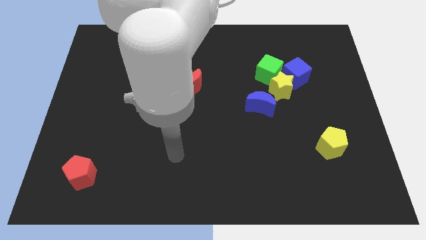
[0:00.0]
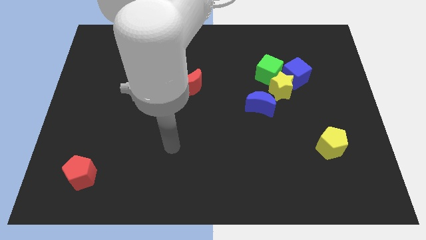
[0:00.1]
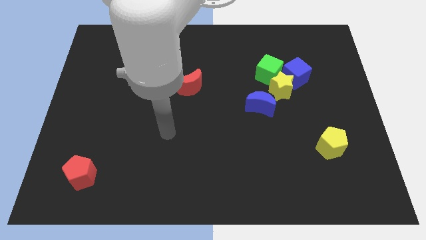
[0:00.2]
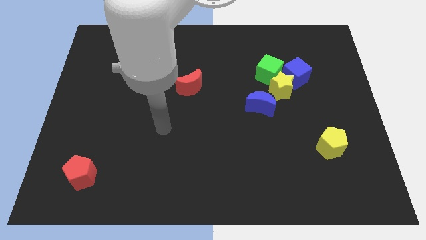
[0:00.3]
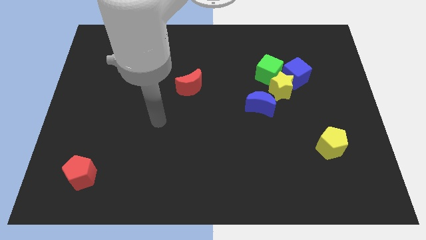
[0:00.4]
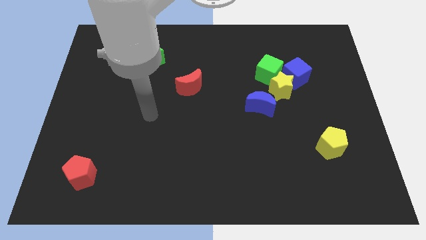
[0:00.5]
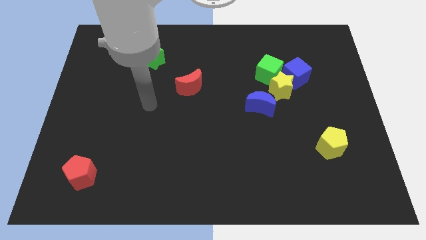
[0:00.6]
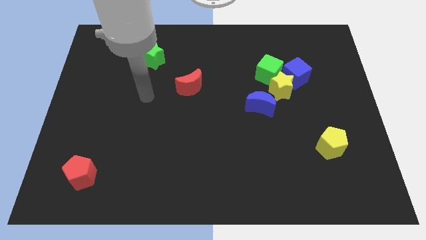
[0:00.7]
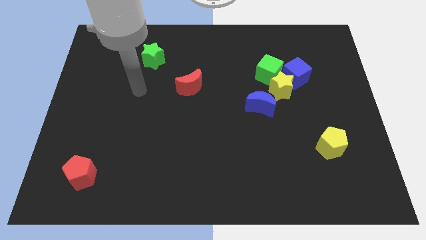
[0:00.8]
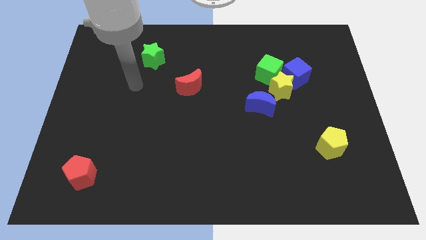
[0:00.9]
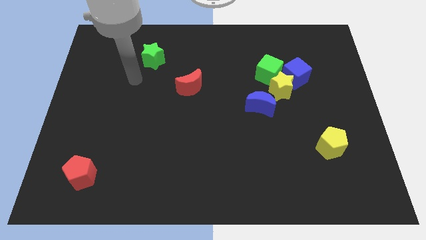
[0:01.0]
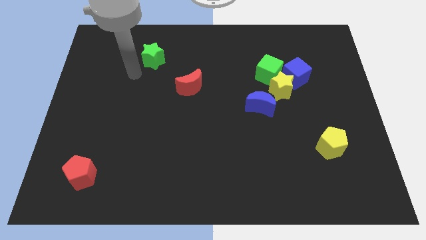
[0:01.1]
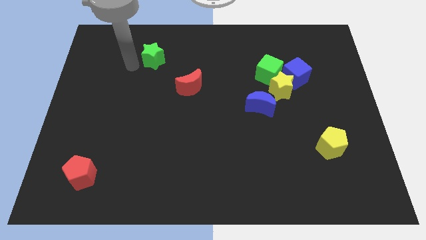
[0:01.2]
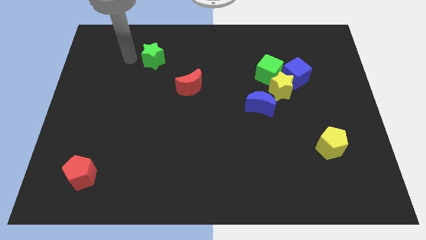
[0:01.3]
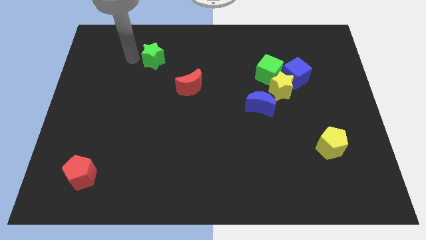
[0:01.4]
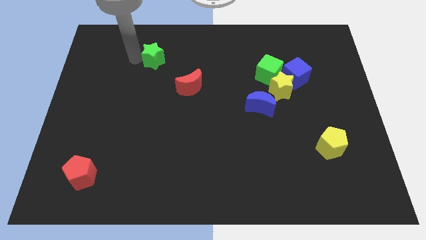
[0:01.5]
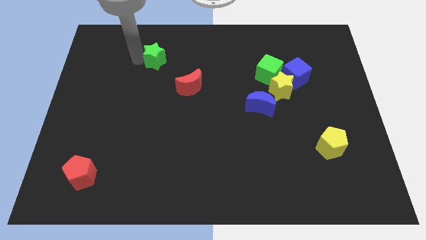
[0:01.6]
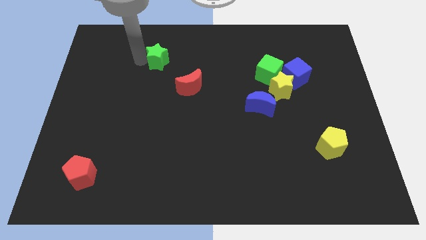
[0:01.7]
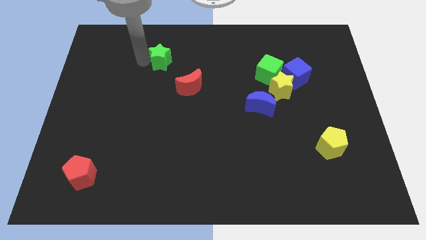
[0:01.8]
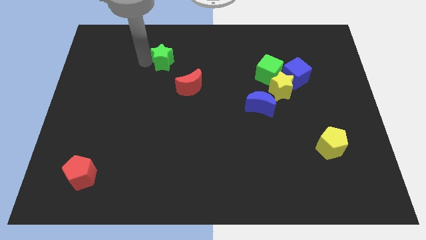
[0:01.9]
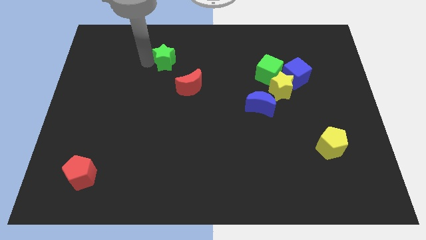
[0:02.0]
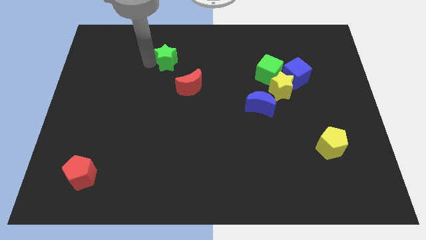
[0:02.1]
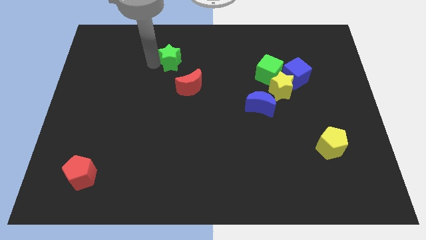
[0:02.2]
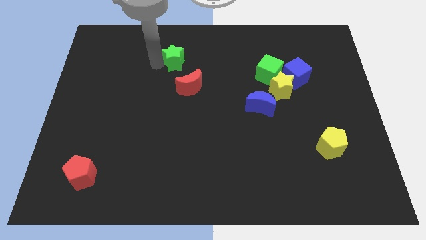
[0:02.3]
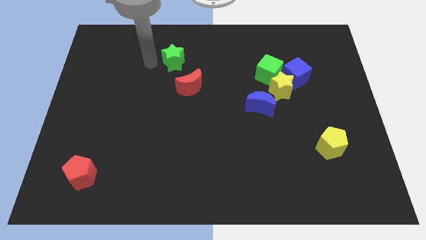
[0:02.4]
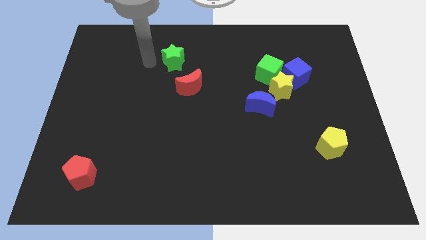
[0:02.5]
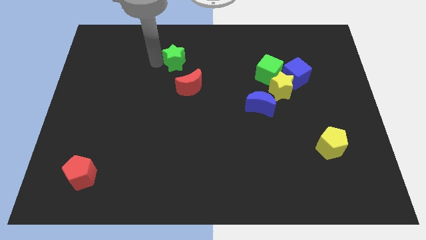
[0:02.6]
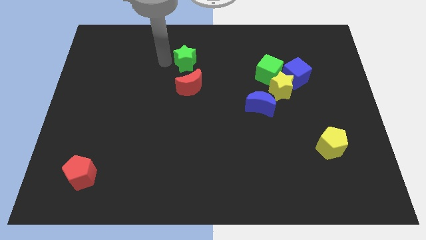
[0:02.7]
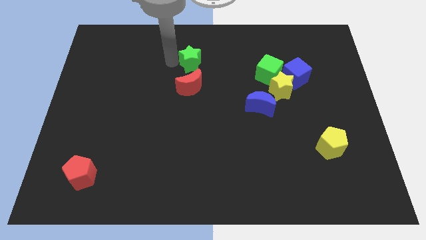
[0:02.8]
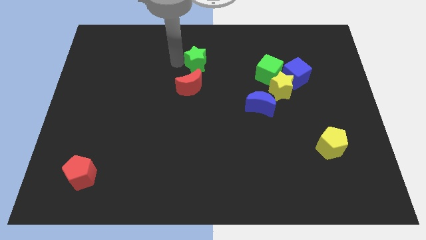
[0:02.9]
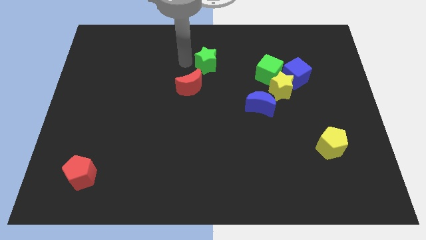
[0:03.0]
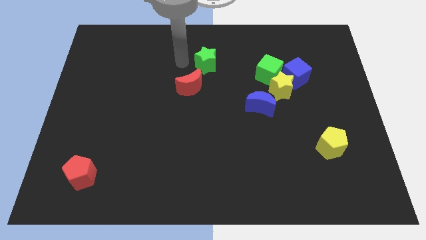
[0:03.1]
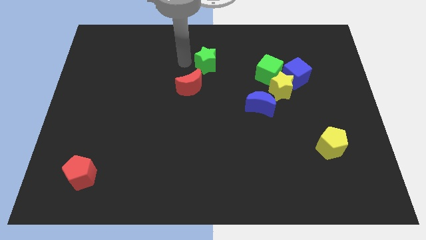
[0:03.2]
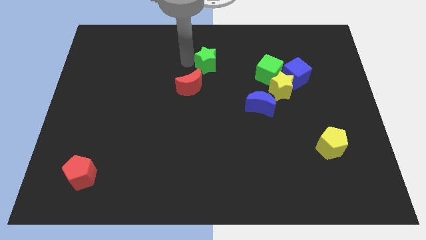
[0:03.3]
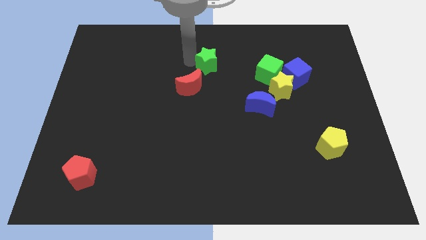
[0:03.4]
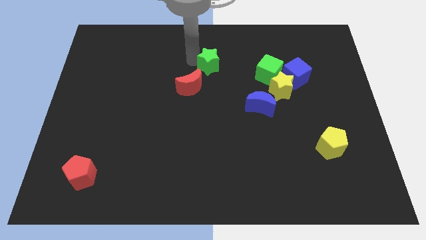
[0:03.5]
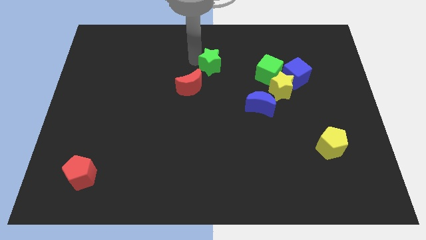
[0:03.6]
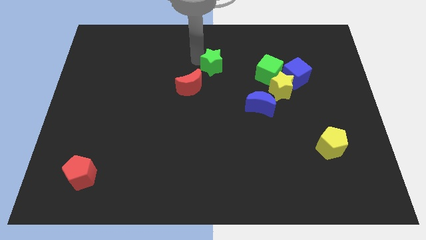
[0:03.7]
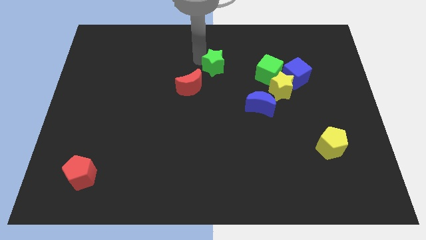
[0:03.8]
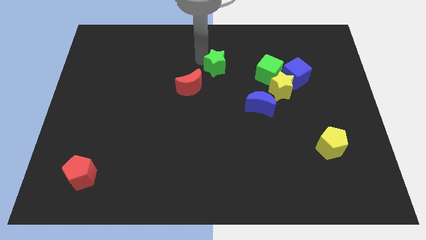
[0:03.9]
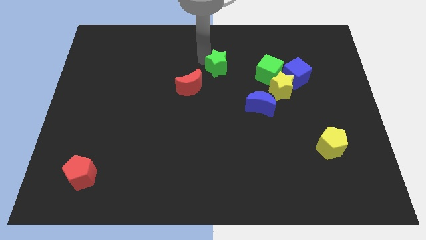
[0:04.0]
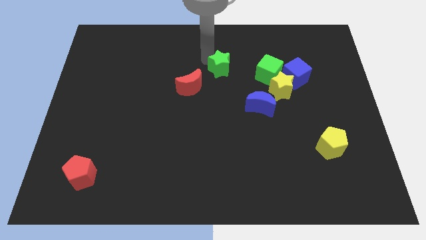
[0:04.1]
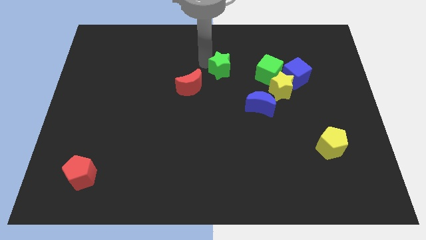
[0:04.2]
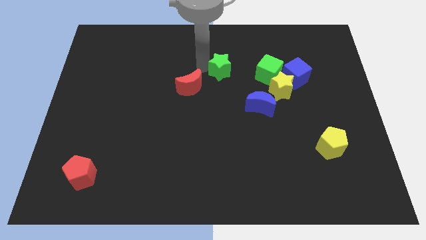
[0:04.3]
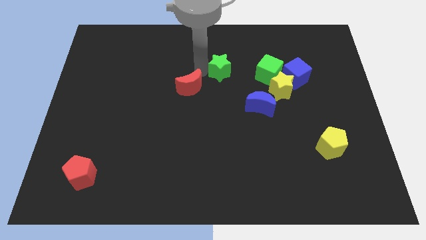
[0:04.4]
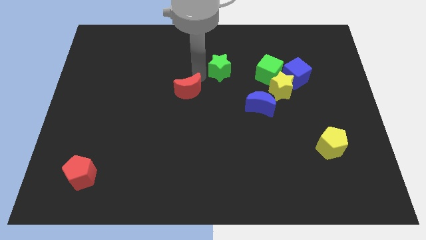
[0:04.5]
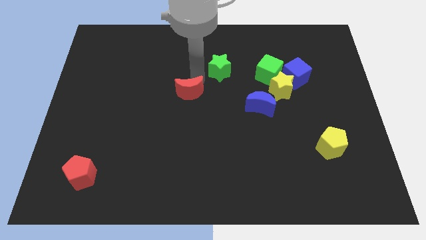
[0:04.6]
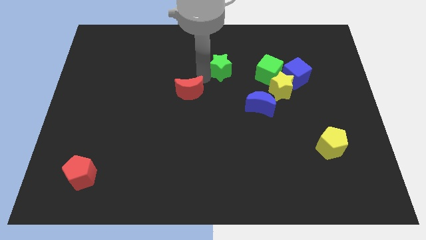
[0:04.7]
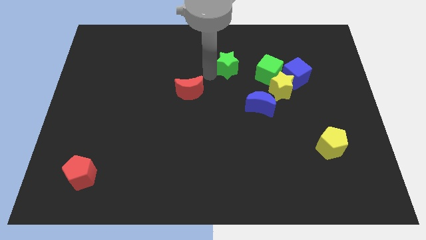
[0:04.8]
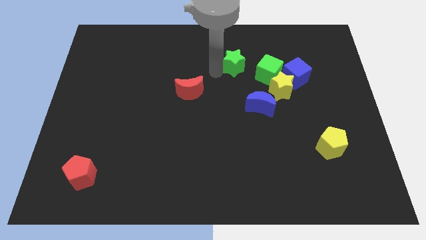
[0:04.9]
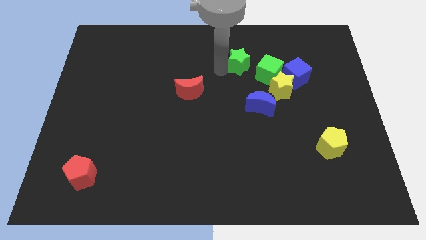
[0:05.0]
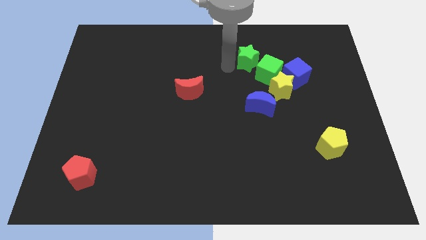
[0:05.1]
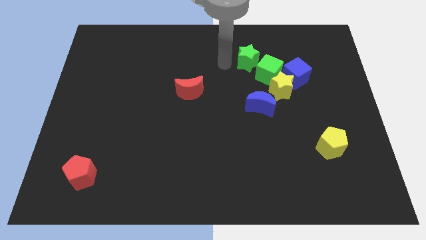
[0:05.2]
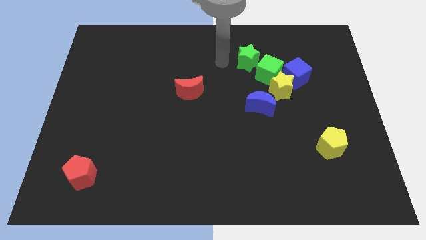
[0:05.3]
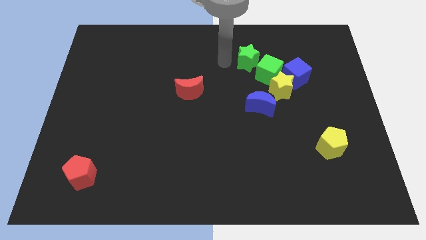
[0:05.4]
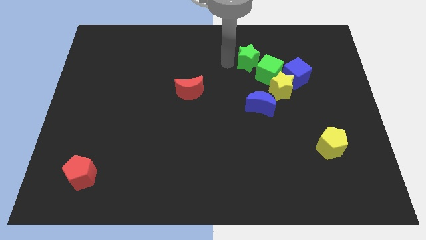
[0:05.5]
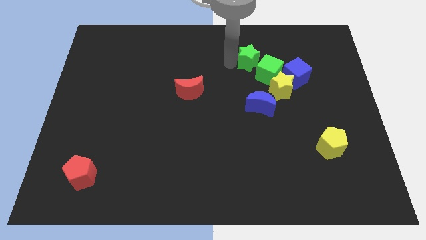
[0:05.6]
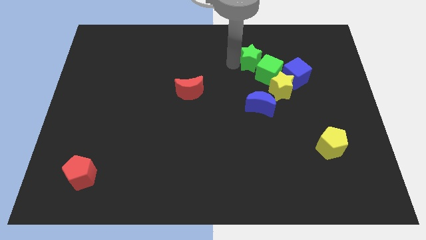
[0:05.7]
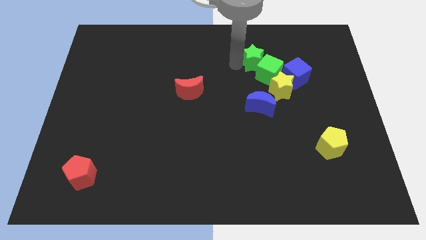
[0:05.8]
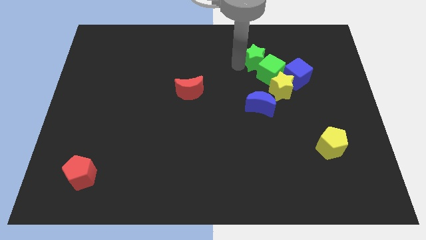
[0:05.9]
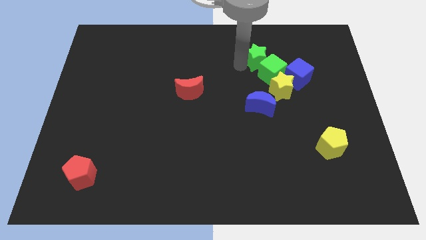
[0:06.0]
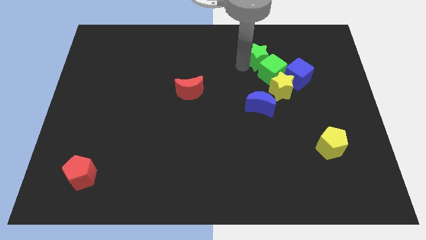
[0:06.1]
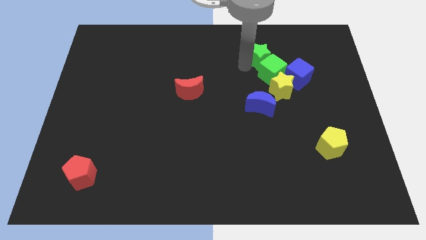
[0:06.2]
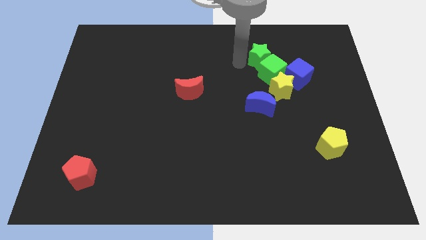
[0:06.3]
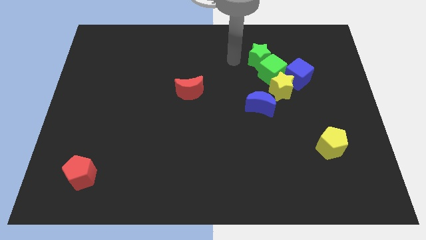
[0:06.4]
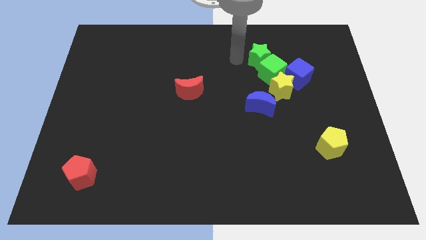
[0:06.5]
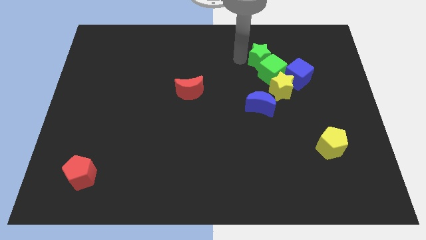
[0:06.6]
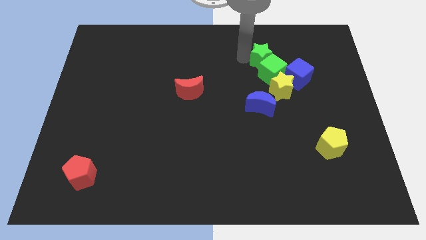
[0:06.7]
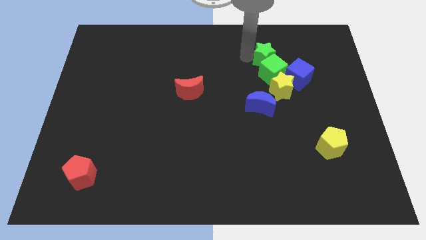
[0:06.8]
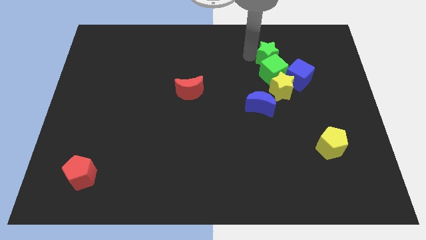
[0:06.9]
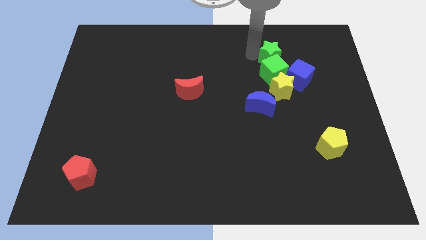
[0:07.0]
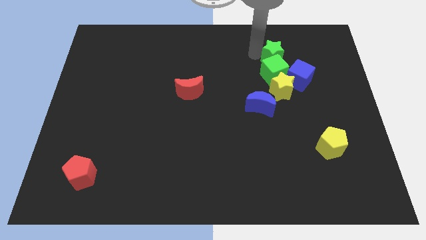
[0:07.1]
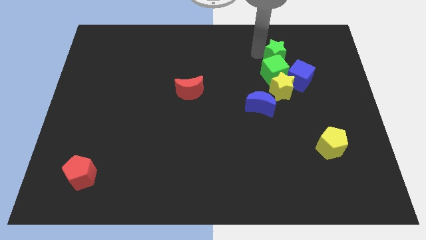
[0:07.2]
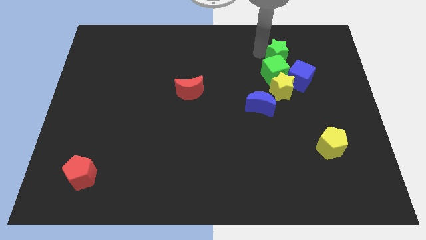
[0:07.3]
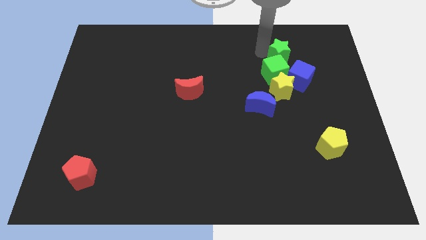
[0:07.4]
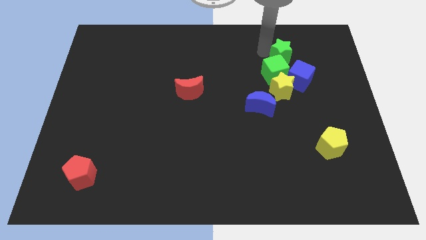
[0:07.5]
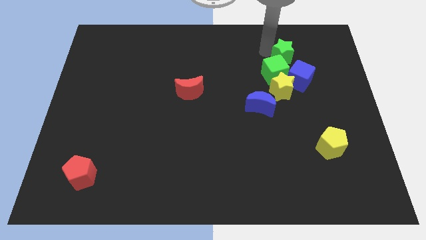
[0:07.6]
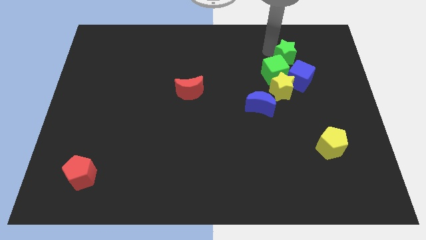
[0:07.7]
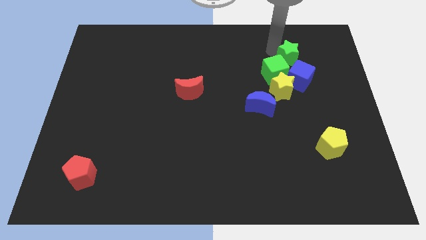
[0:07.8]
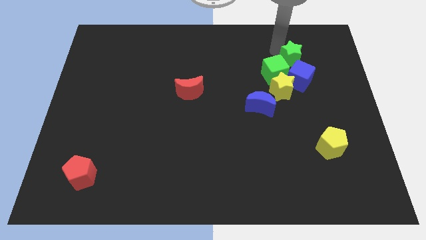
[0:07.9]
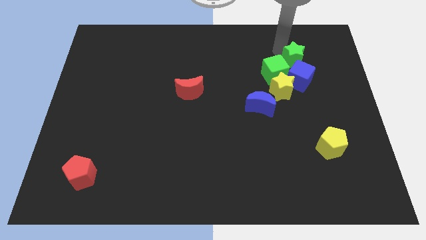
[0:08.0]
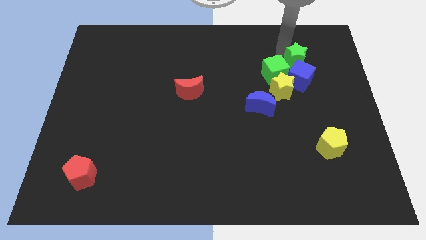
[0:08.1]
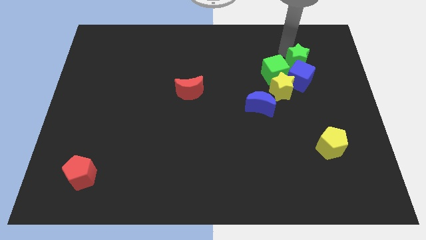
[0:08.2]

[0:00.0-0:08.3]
move the green star to the top right side of the blue cube
